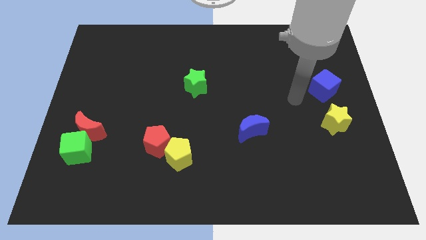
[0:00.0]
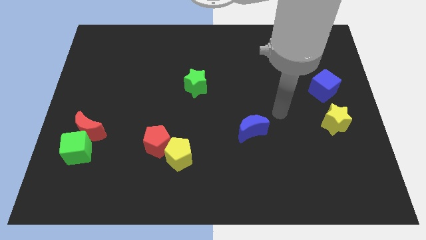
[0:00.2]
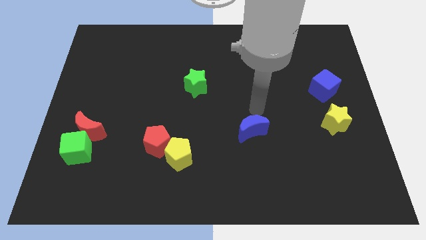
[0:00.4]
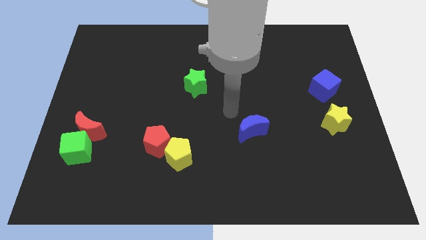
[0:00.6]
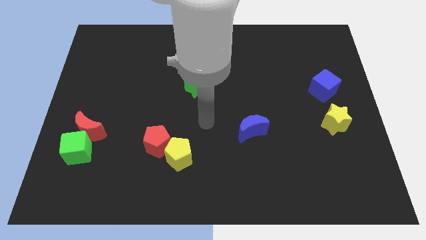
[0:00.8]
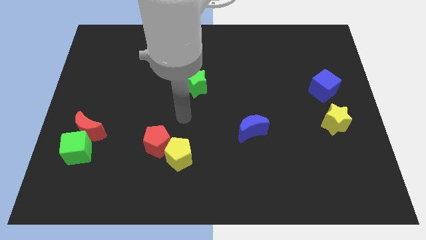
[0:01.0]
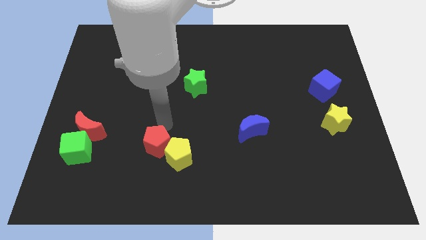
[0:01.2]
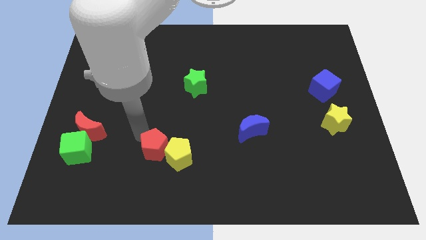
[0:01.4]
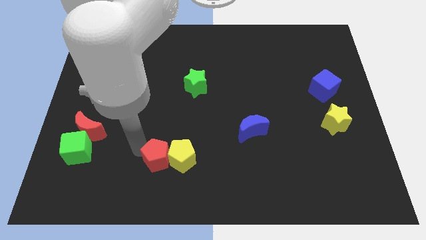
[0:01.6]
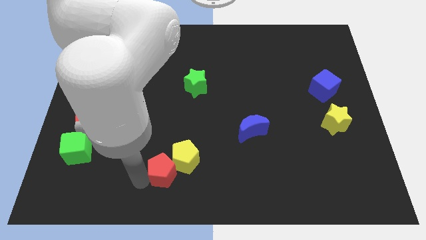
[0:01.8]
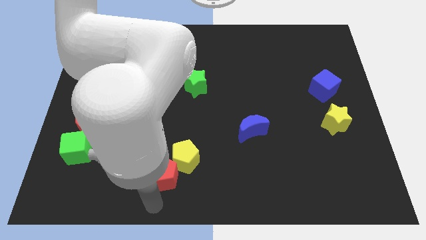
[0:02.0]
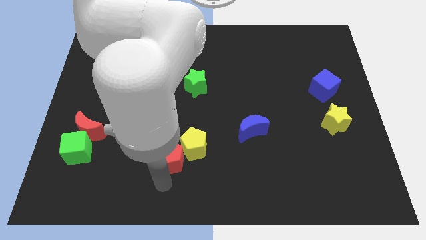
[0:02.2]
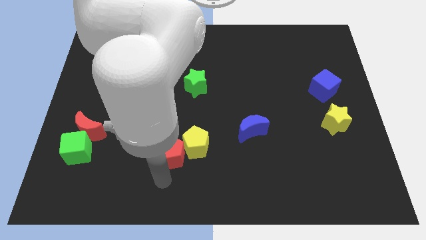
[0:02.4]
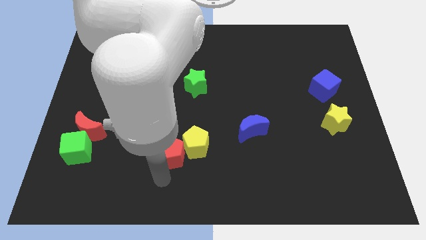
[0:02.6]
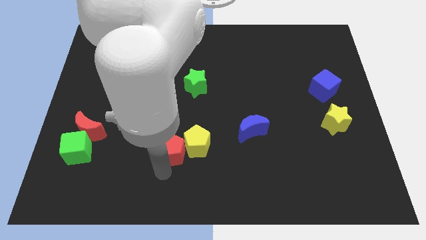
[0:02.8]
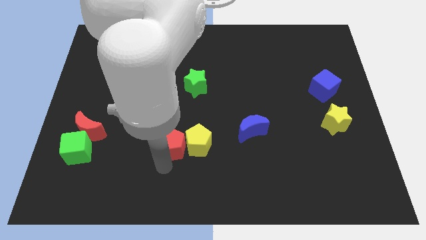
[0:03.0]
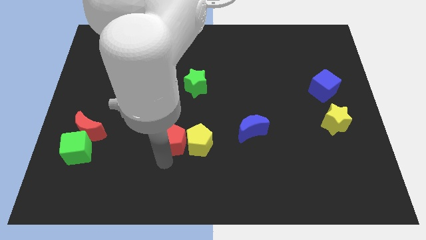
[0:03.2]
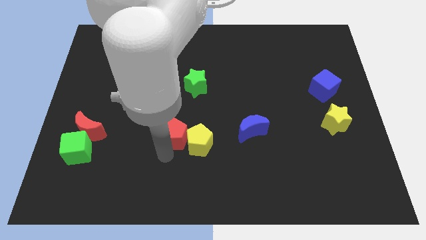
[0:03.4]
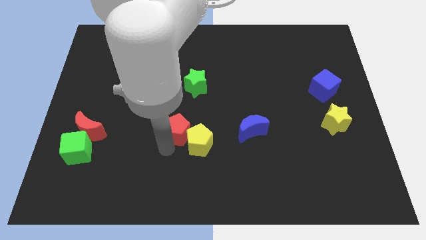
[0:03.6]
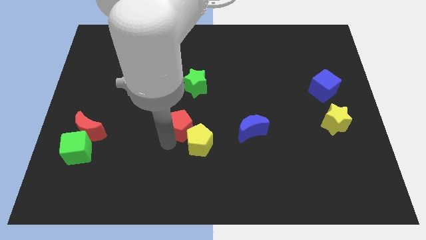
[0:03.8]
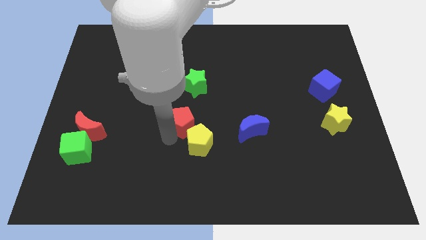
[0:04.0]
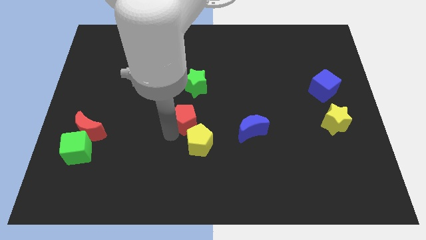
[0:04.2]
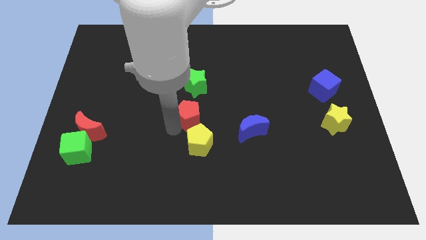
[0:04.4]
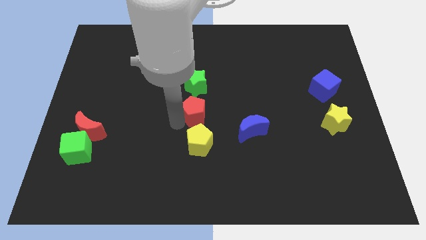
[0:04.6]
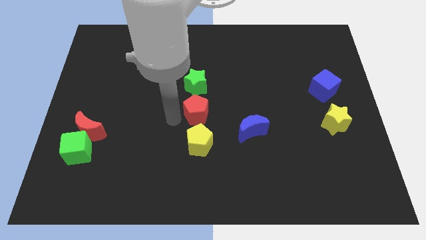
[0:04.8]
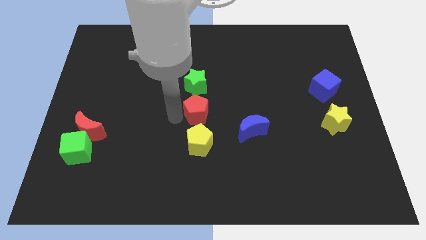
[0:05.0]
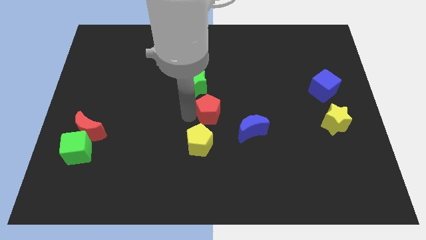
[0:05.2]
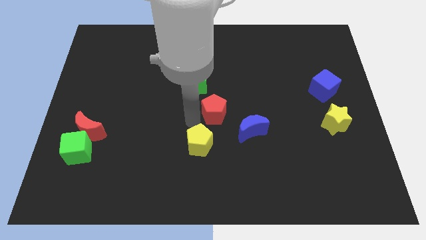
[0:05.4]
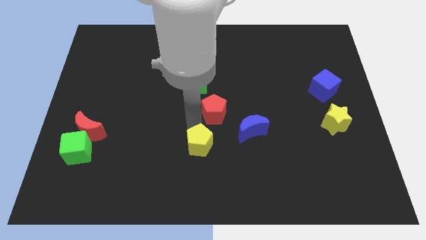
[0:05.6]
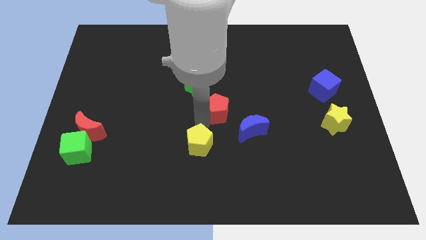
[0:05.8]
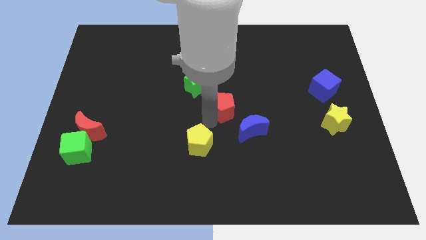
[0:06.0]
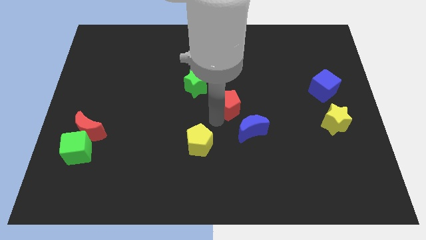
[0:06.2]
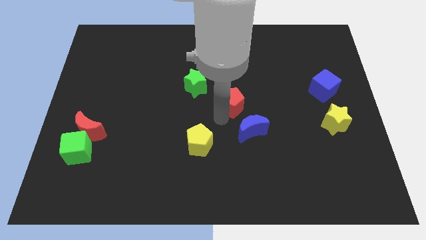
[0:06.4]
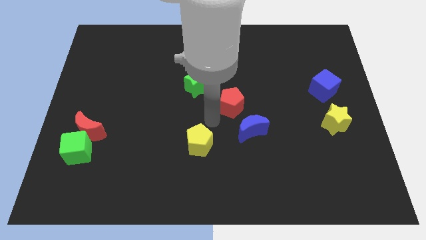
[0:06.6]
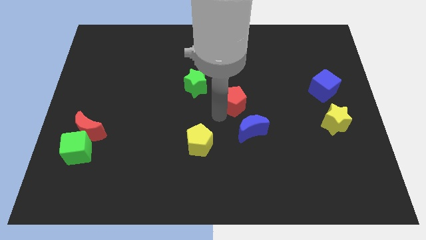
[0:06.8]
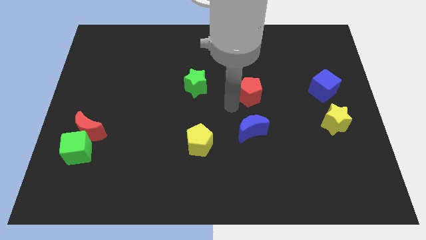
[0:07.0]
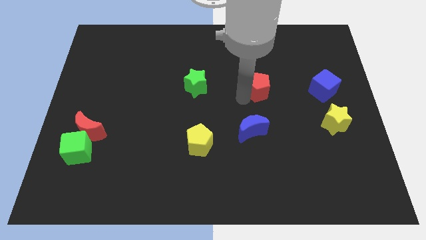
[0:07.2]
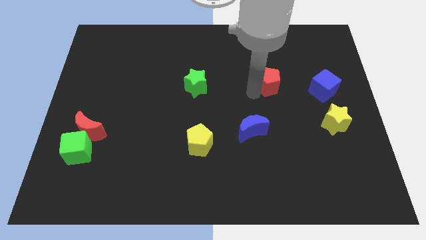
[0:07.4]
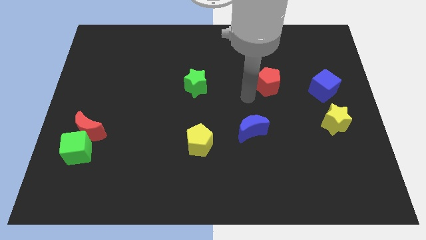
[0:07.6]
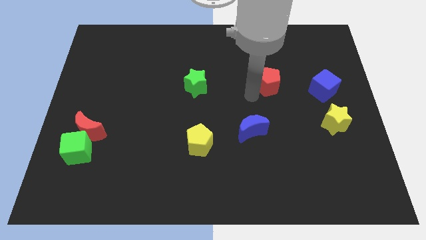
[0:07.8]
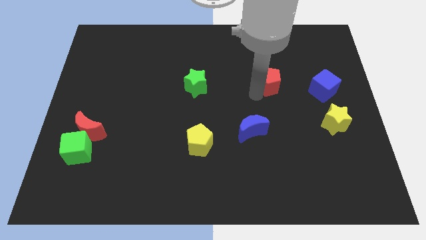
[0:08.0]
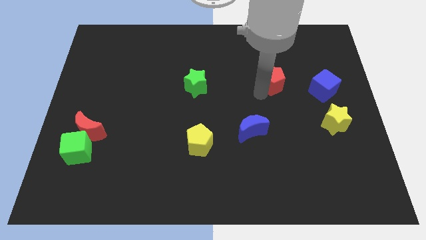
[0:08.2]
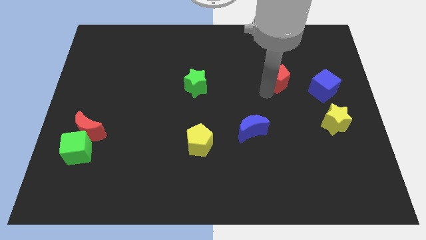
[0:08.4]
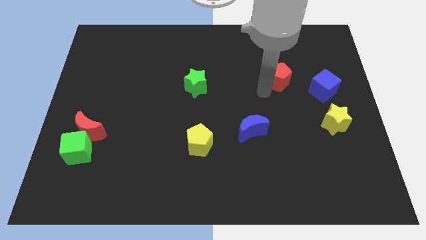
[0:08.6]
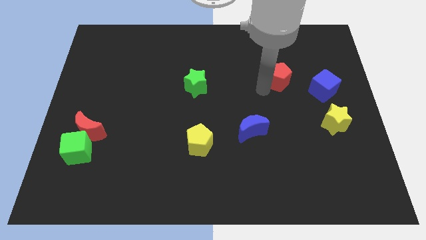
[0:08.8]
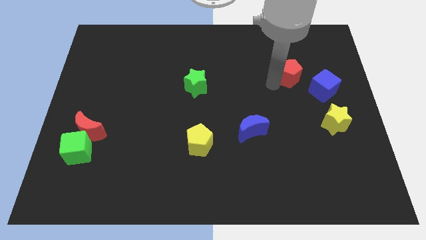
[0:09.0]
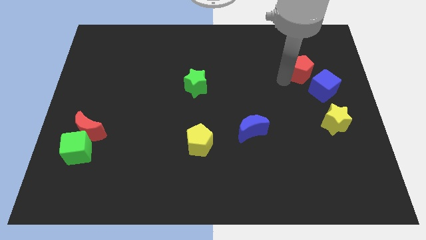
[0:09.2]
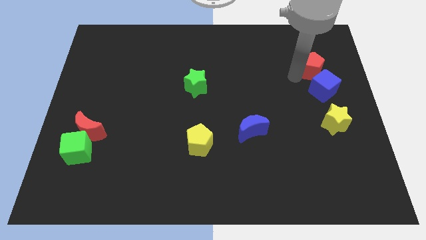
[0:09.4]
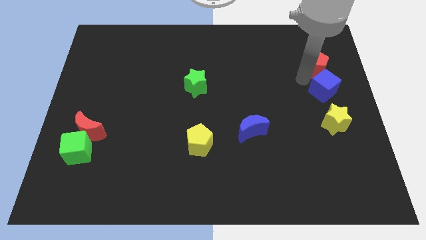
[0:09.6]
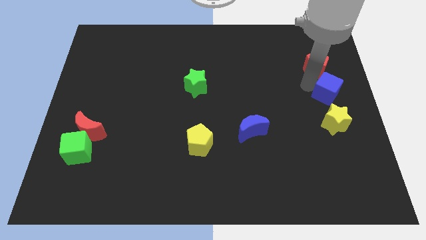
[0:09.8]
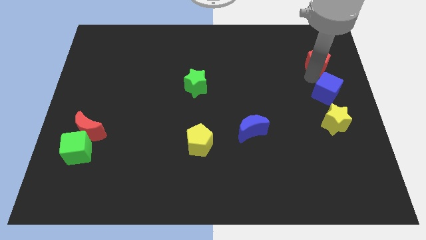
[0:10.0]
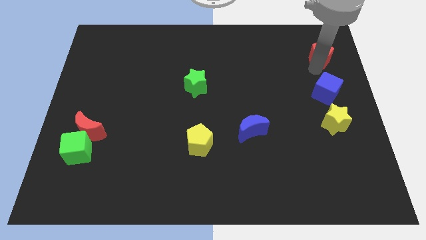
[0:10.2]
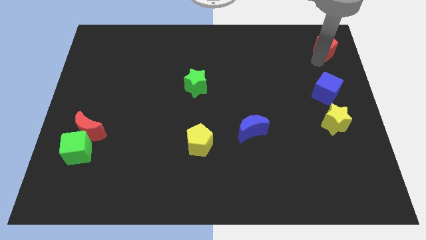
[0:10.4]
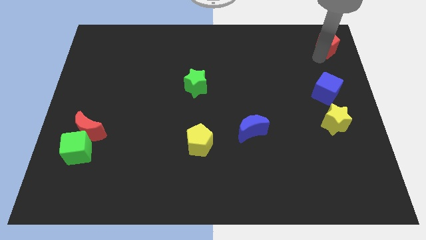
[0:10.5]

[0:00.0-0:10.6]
slide the red pentagon to the upper right corner

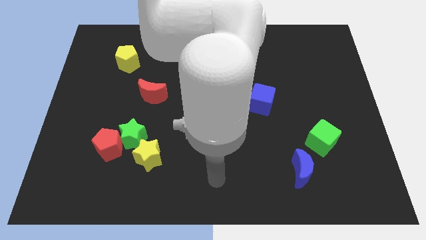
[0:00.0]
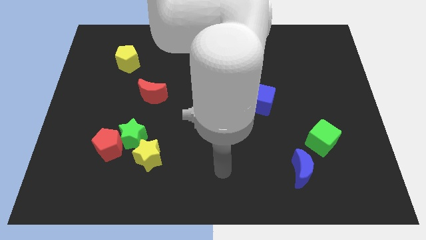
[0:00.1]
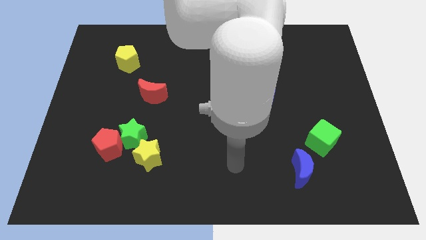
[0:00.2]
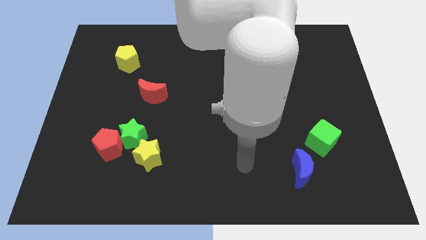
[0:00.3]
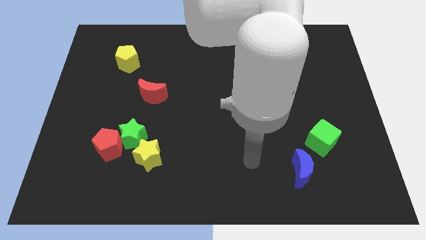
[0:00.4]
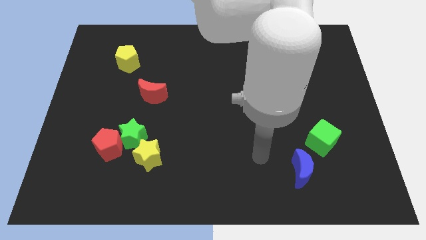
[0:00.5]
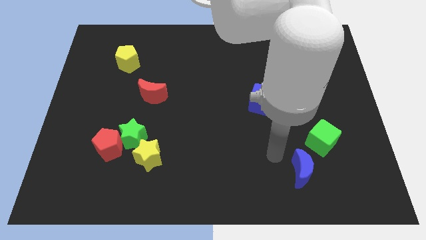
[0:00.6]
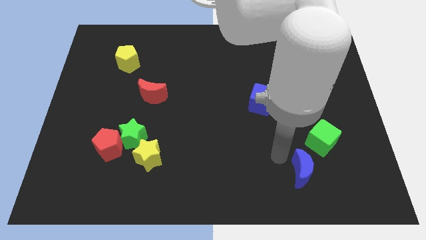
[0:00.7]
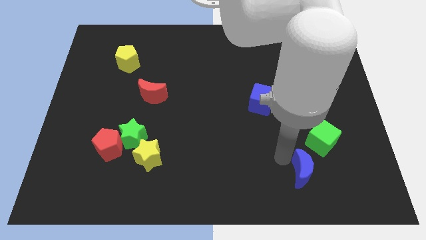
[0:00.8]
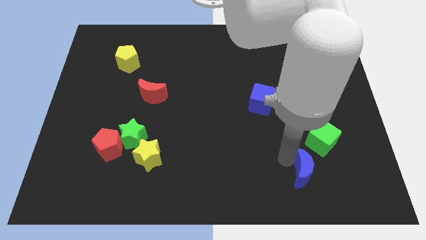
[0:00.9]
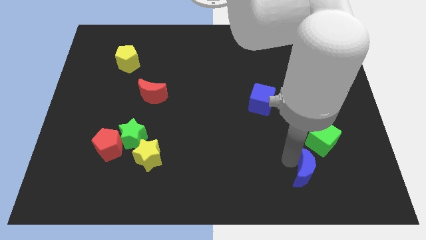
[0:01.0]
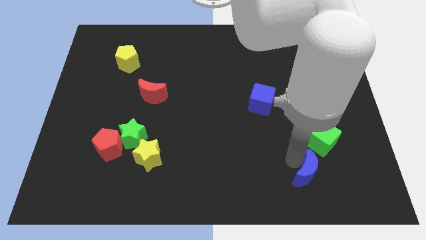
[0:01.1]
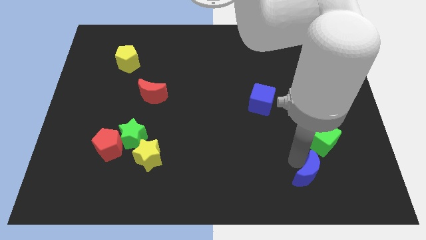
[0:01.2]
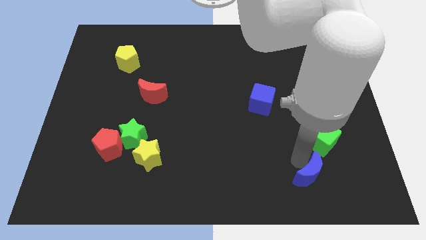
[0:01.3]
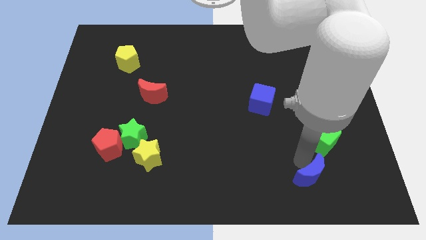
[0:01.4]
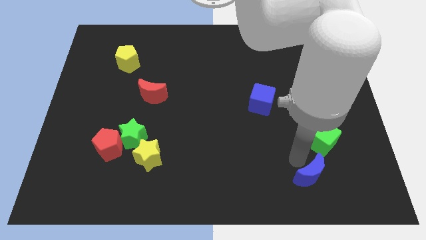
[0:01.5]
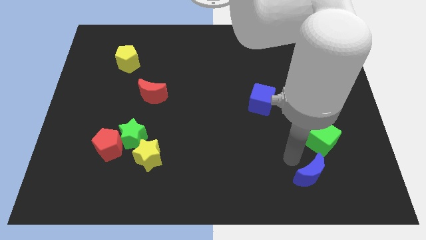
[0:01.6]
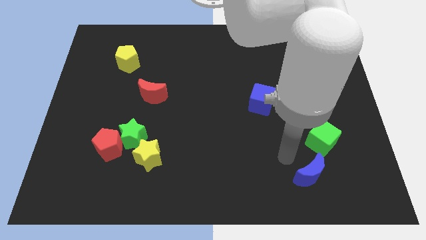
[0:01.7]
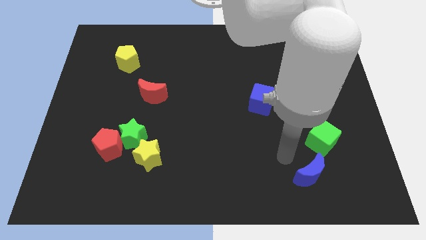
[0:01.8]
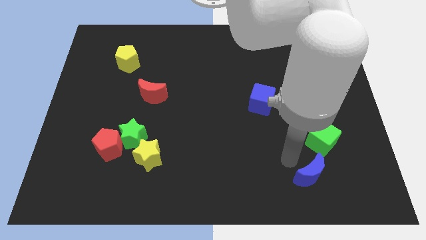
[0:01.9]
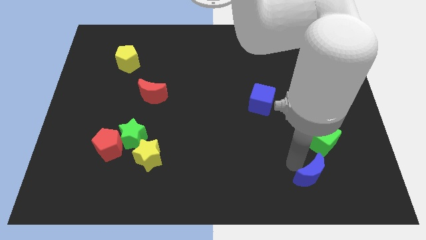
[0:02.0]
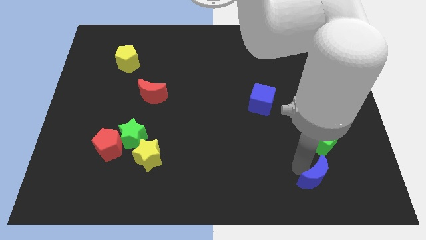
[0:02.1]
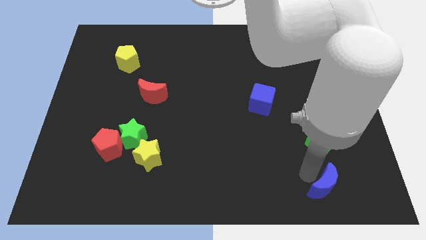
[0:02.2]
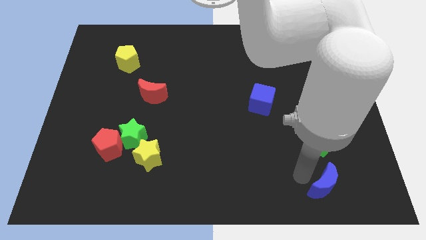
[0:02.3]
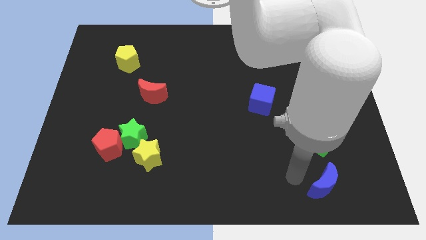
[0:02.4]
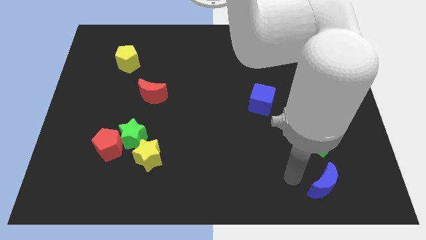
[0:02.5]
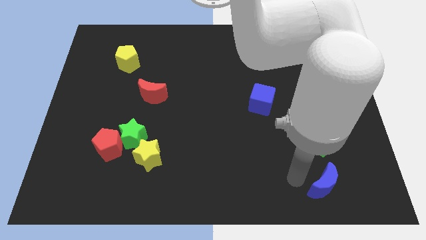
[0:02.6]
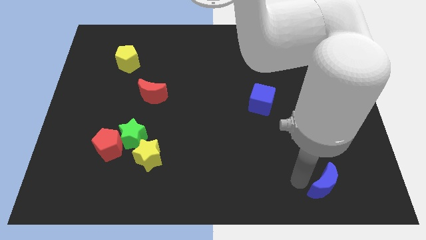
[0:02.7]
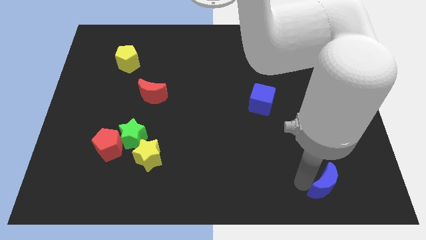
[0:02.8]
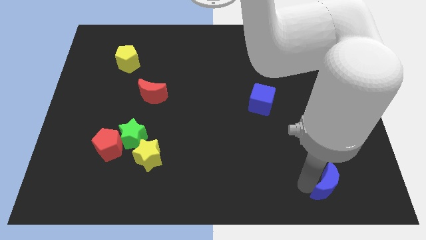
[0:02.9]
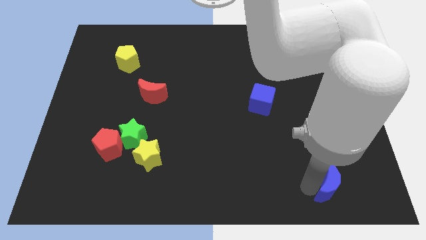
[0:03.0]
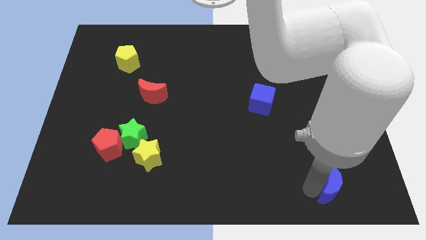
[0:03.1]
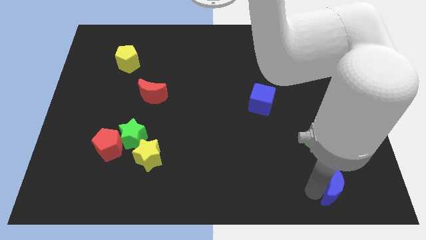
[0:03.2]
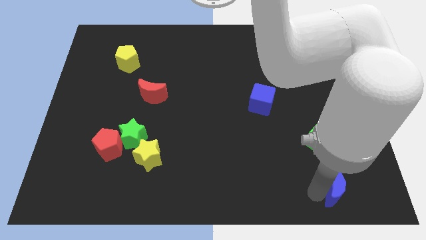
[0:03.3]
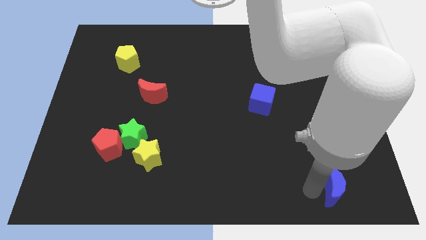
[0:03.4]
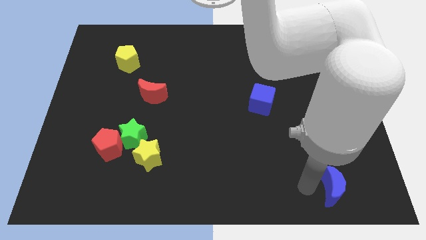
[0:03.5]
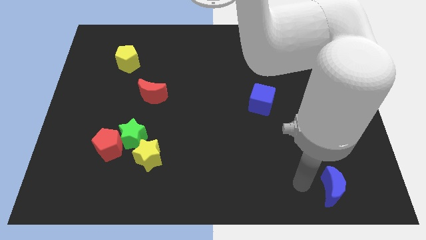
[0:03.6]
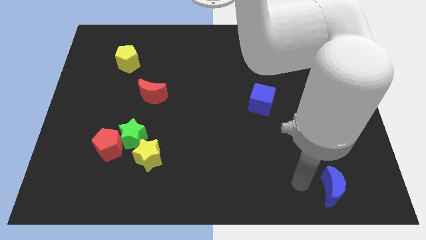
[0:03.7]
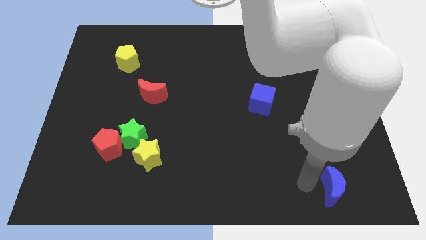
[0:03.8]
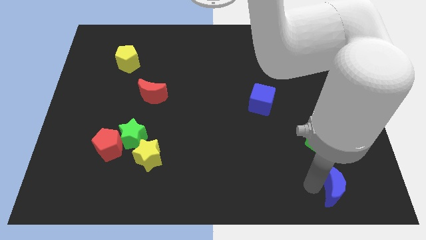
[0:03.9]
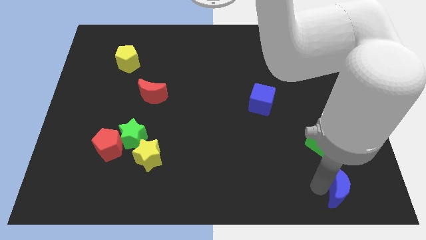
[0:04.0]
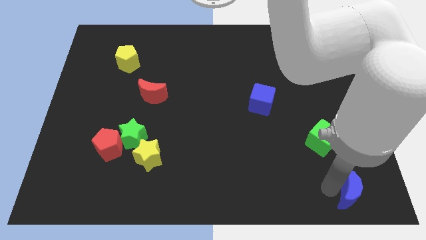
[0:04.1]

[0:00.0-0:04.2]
move the blue moon to the bottom right
